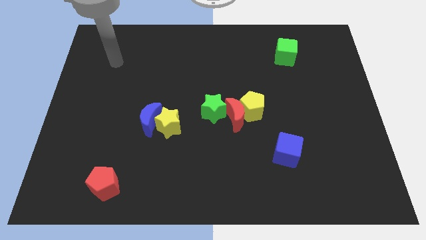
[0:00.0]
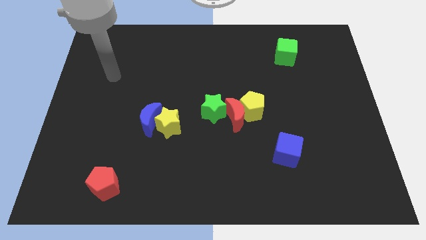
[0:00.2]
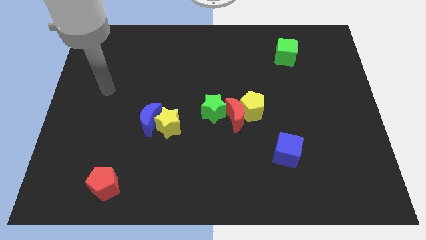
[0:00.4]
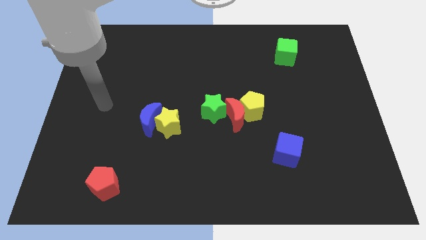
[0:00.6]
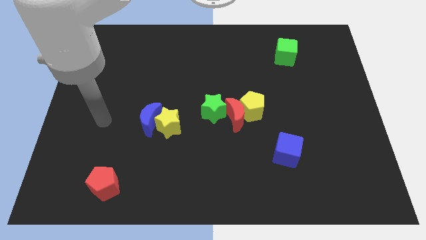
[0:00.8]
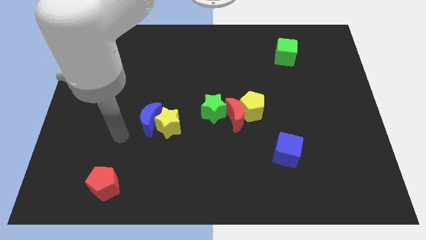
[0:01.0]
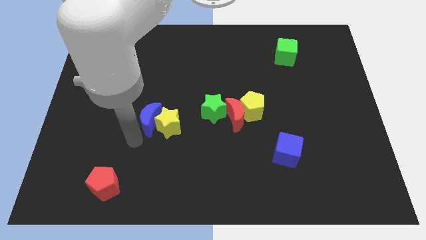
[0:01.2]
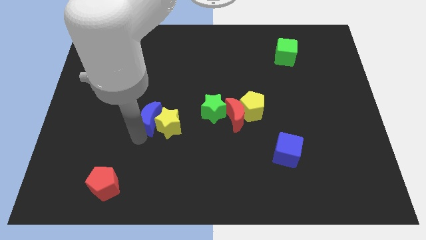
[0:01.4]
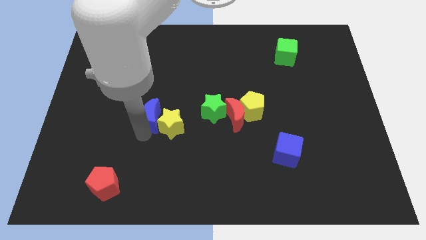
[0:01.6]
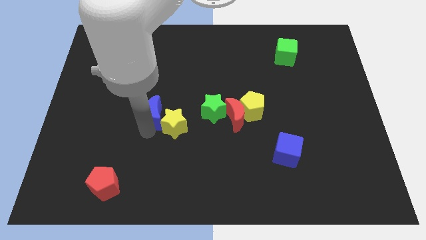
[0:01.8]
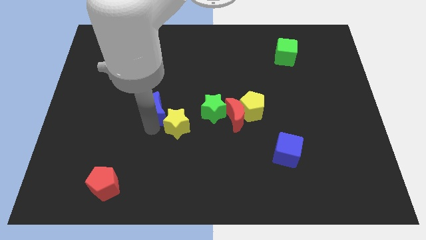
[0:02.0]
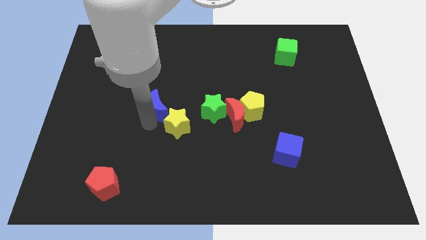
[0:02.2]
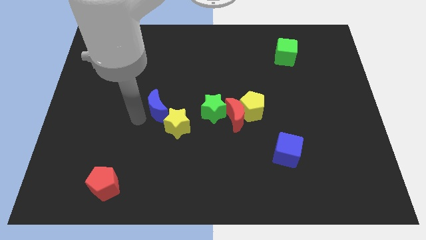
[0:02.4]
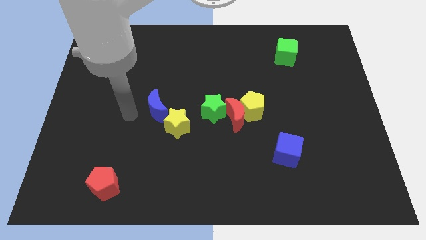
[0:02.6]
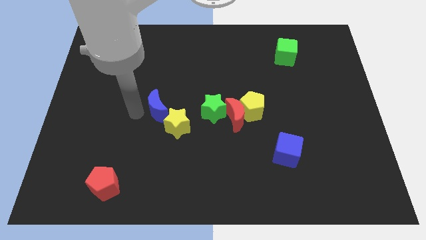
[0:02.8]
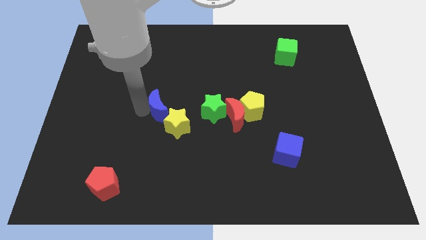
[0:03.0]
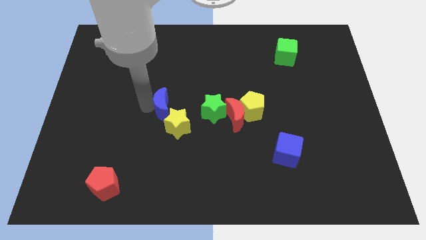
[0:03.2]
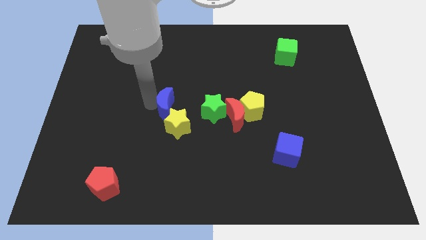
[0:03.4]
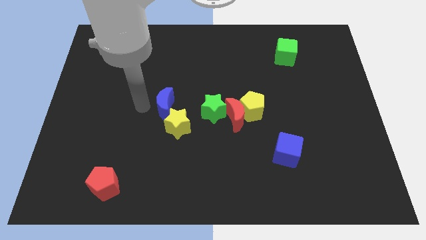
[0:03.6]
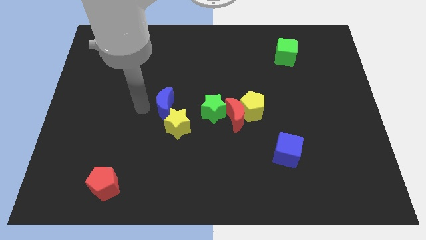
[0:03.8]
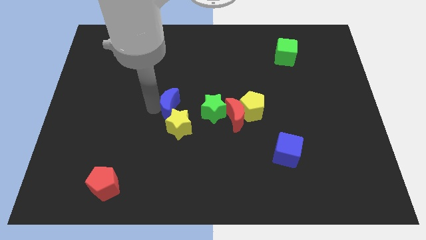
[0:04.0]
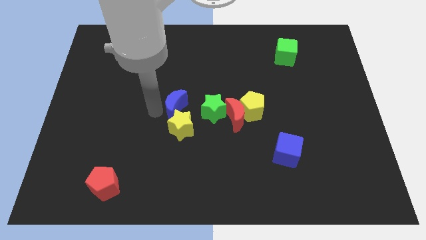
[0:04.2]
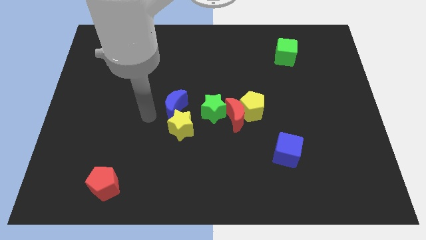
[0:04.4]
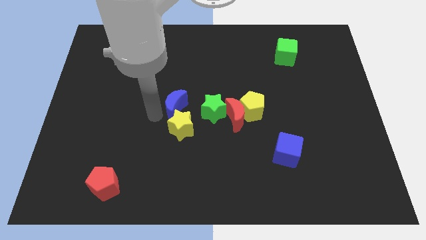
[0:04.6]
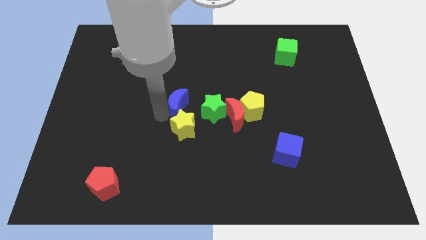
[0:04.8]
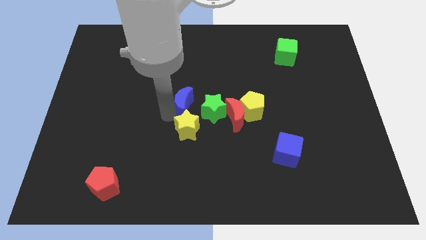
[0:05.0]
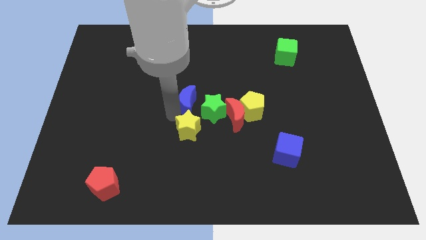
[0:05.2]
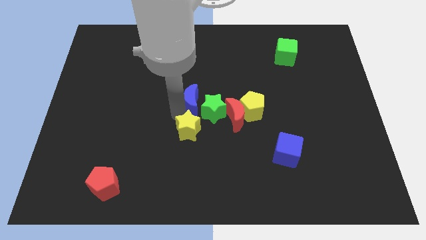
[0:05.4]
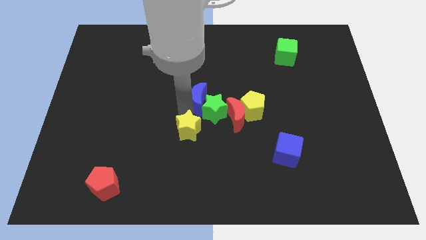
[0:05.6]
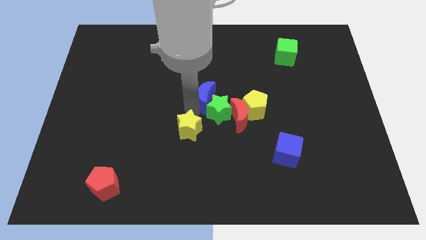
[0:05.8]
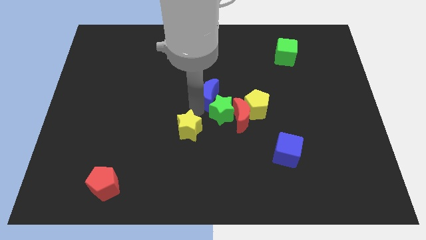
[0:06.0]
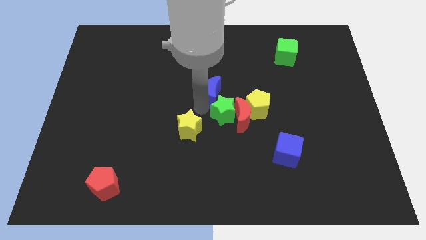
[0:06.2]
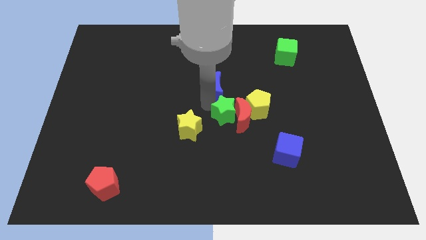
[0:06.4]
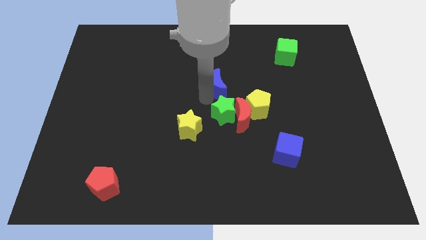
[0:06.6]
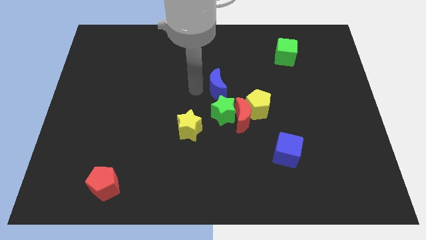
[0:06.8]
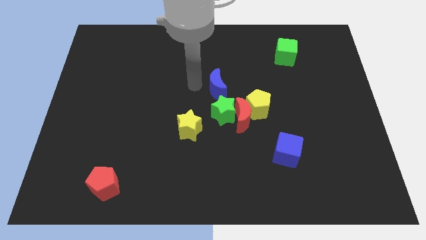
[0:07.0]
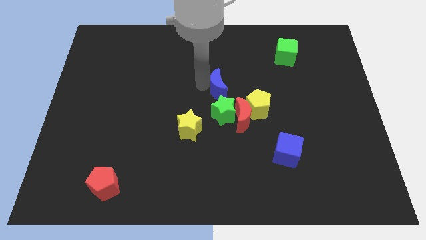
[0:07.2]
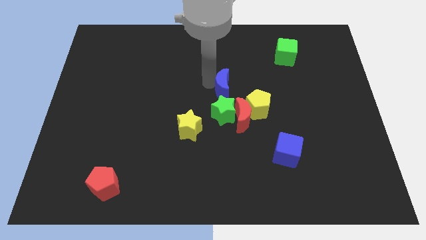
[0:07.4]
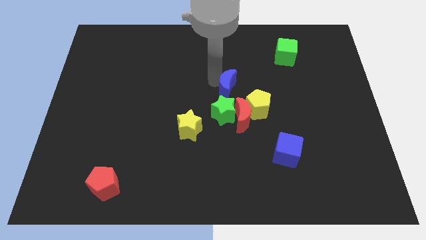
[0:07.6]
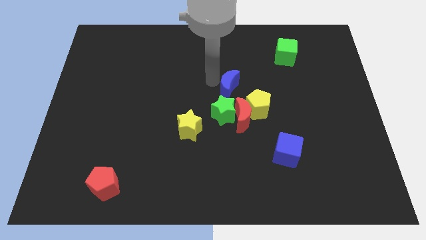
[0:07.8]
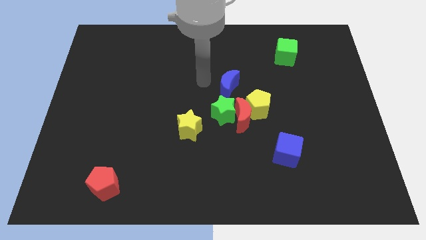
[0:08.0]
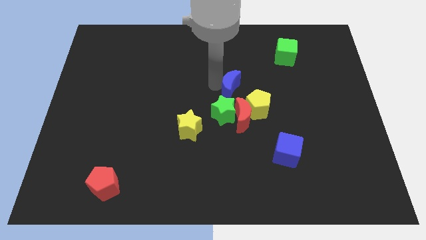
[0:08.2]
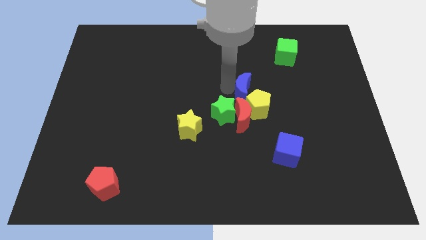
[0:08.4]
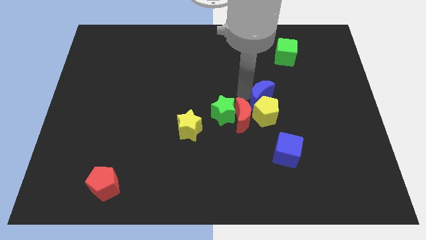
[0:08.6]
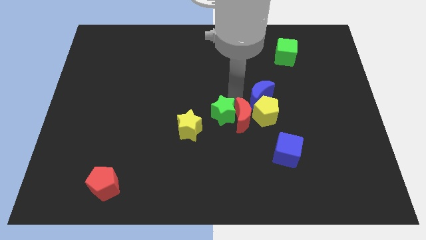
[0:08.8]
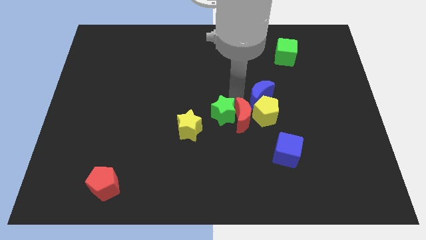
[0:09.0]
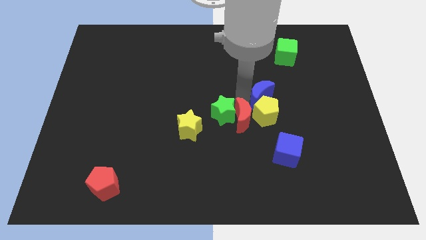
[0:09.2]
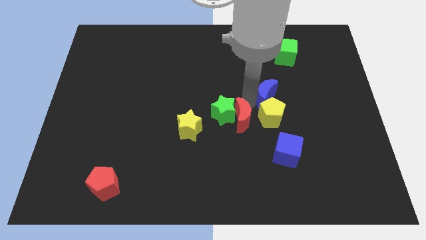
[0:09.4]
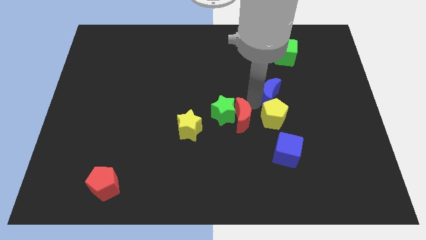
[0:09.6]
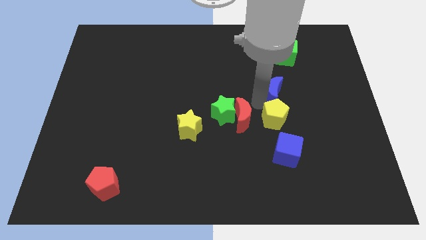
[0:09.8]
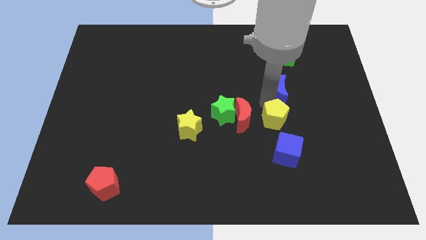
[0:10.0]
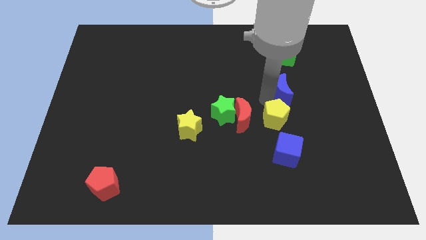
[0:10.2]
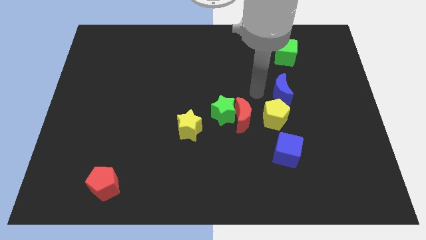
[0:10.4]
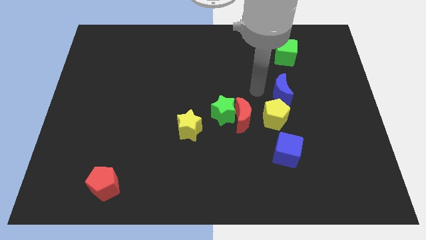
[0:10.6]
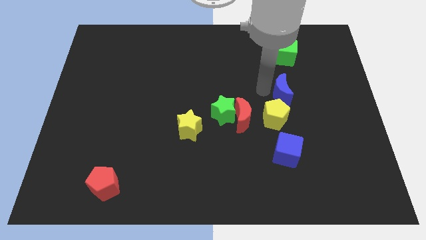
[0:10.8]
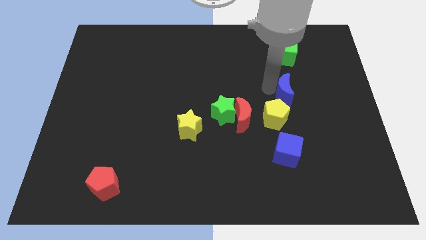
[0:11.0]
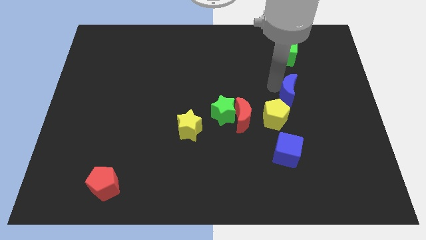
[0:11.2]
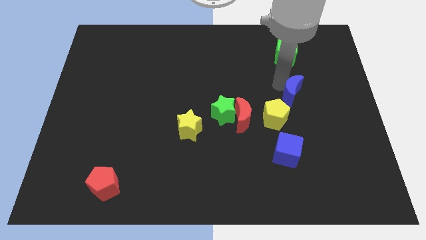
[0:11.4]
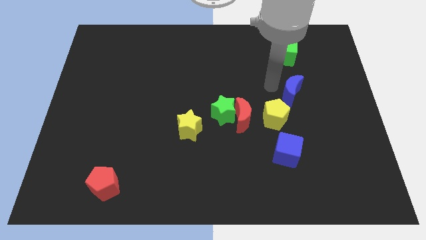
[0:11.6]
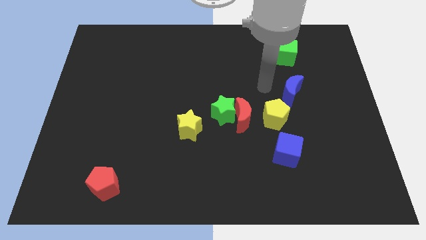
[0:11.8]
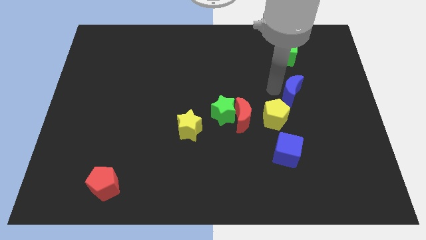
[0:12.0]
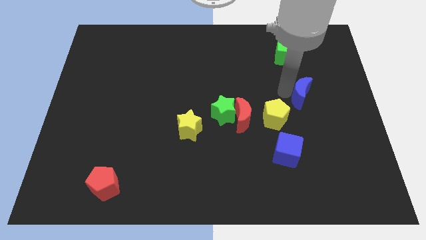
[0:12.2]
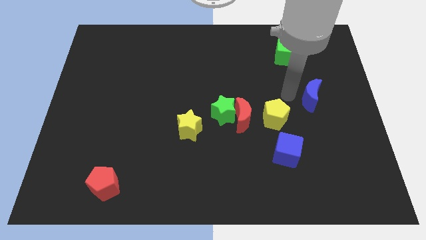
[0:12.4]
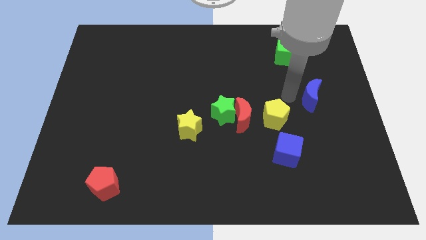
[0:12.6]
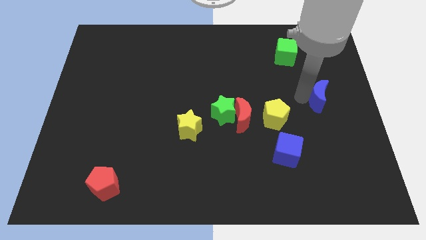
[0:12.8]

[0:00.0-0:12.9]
slide the blue moon to the right side of the board
